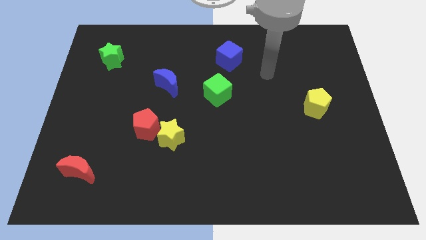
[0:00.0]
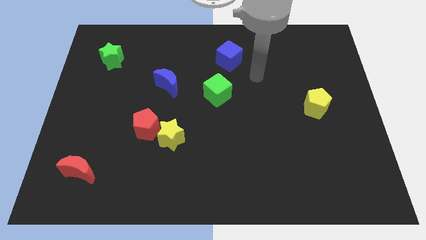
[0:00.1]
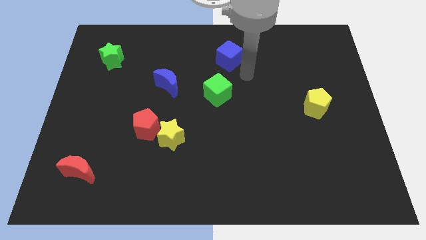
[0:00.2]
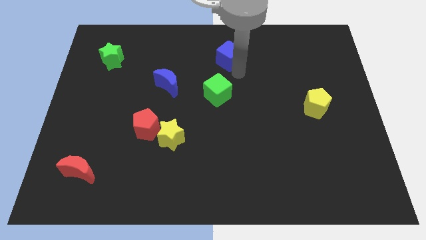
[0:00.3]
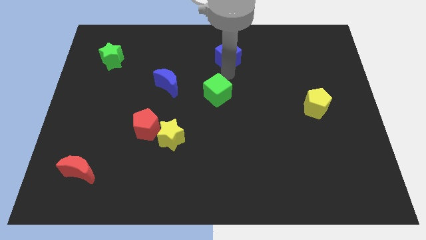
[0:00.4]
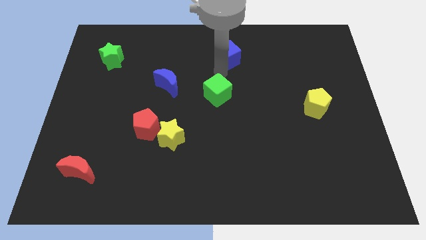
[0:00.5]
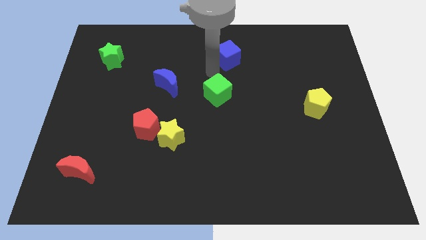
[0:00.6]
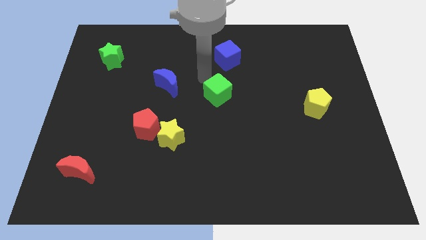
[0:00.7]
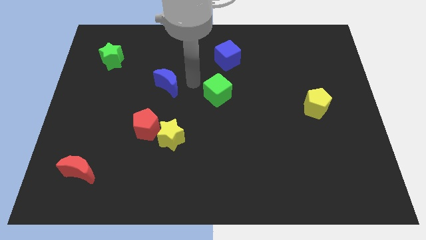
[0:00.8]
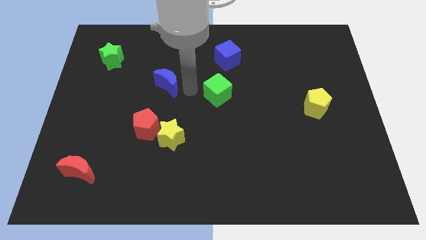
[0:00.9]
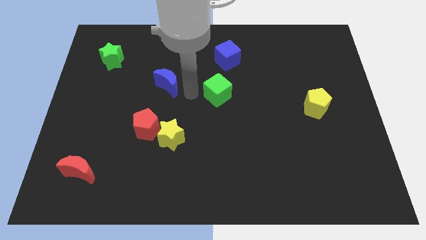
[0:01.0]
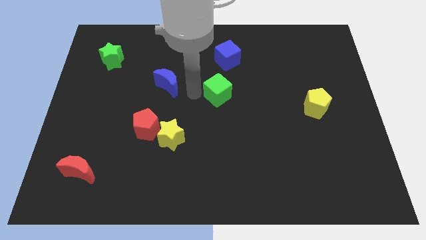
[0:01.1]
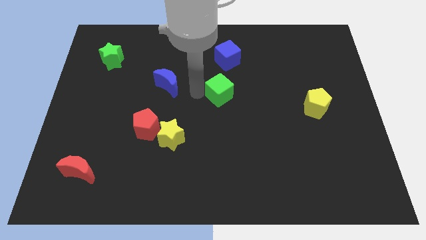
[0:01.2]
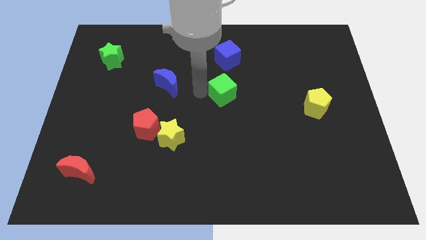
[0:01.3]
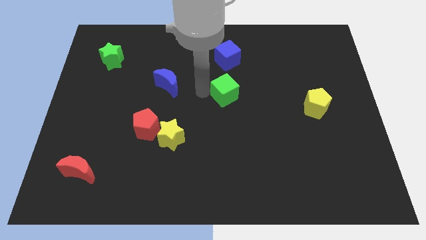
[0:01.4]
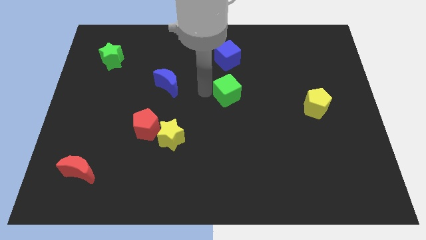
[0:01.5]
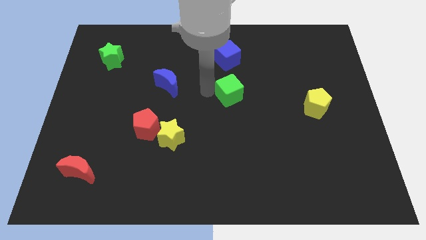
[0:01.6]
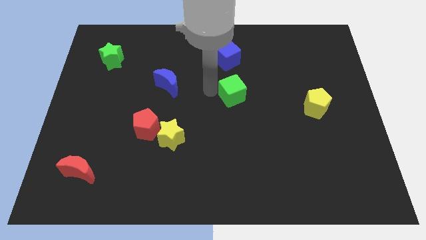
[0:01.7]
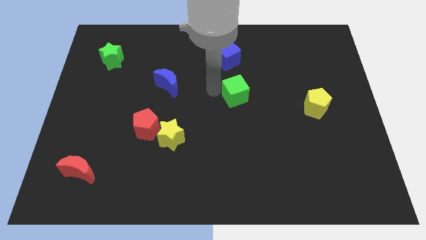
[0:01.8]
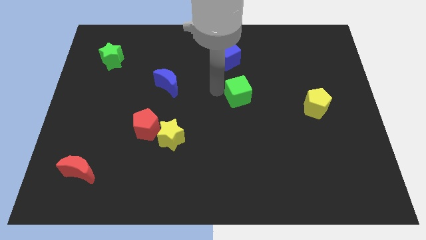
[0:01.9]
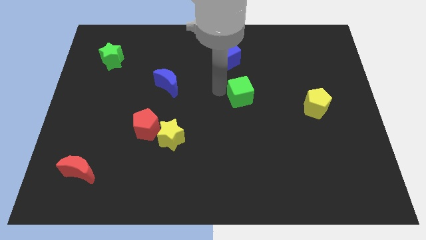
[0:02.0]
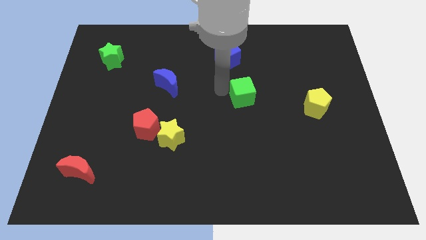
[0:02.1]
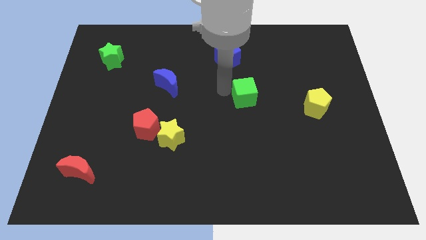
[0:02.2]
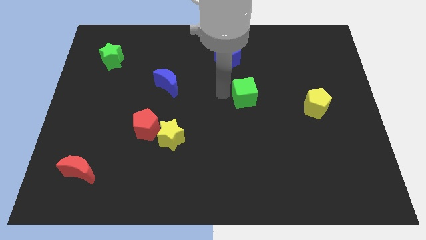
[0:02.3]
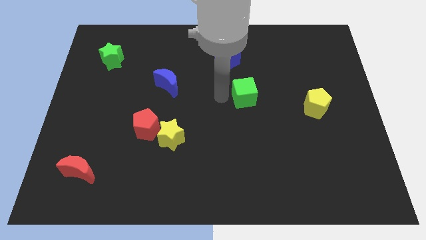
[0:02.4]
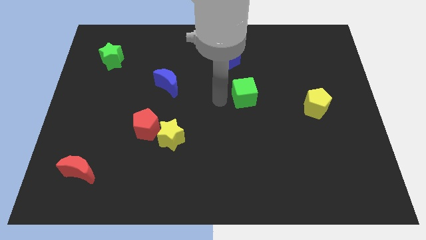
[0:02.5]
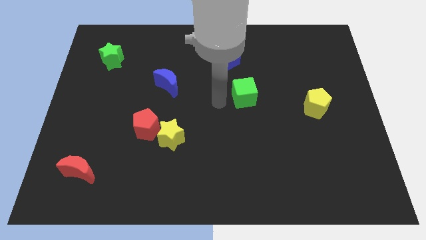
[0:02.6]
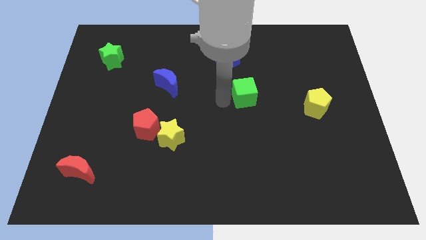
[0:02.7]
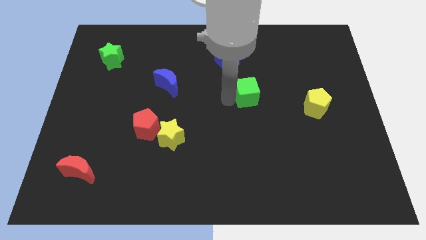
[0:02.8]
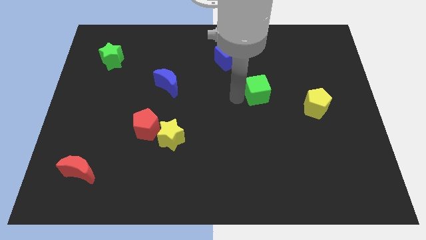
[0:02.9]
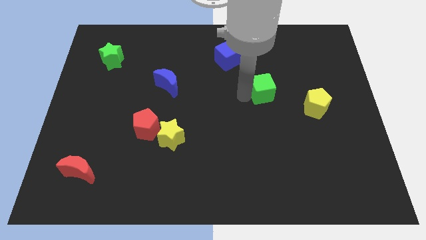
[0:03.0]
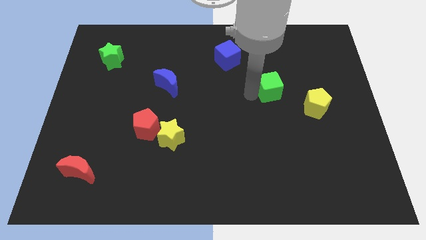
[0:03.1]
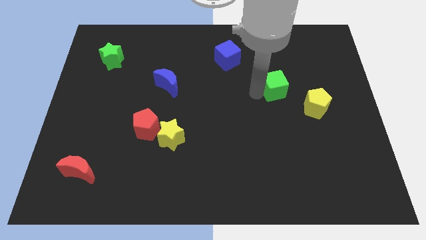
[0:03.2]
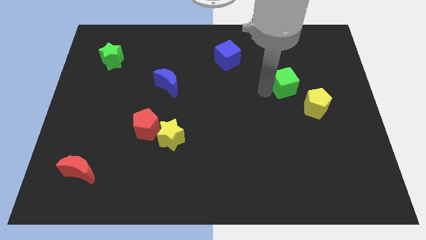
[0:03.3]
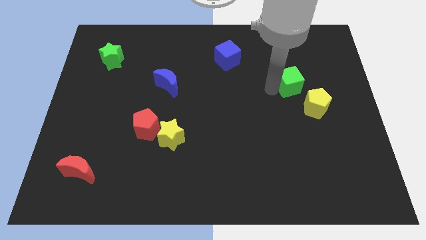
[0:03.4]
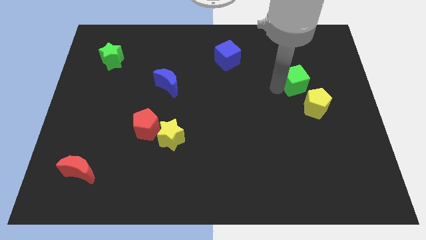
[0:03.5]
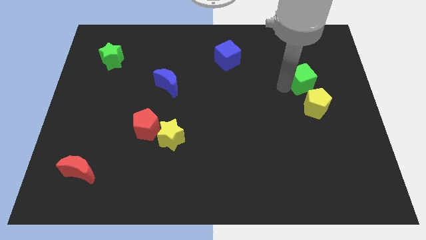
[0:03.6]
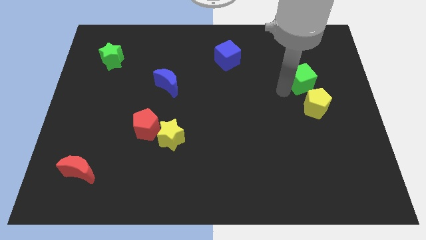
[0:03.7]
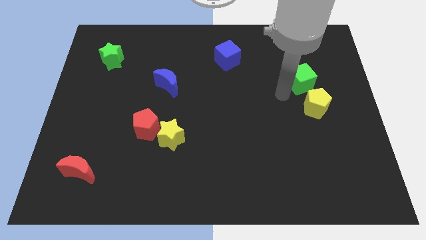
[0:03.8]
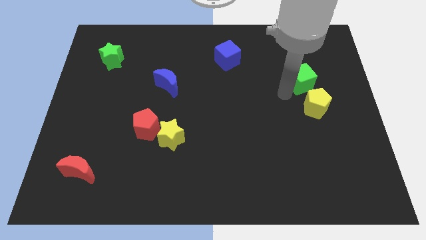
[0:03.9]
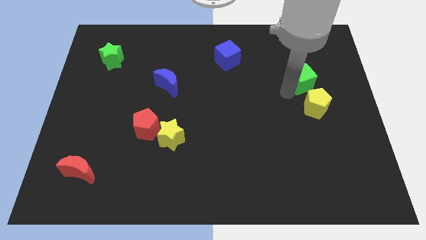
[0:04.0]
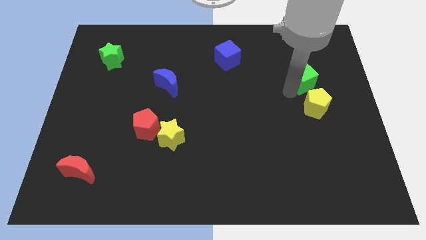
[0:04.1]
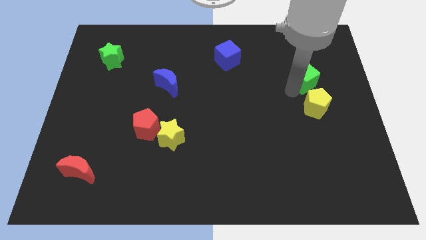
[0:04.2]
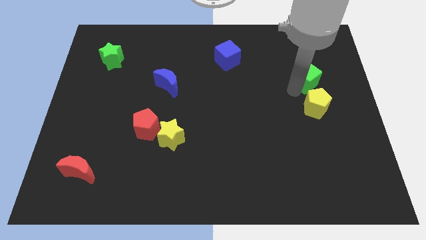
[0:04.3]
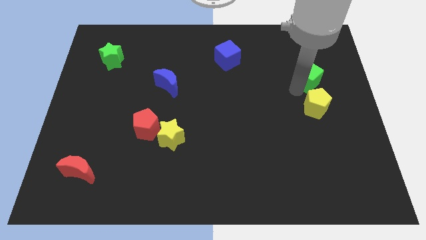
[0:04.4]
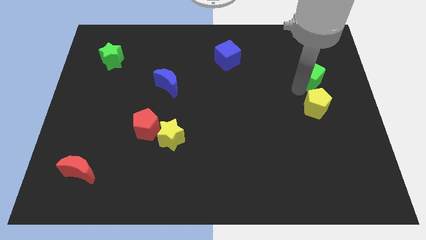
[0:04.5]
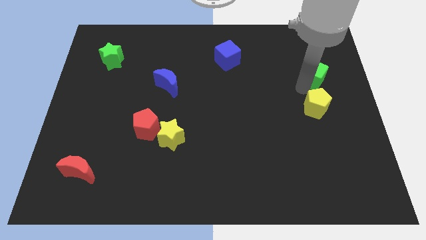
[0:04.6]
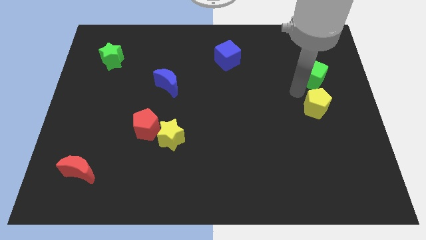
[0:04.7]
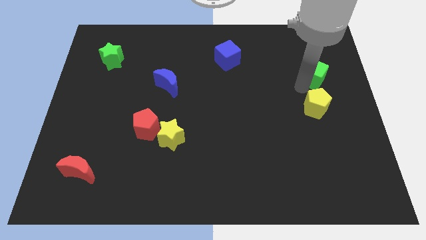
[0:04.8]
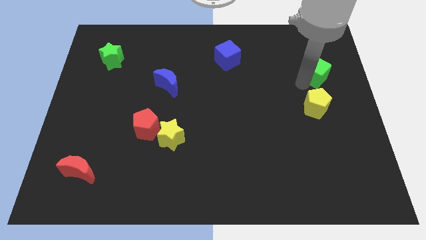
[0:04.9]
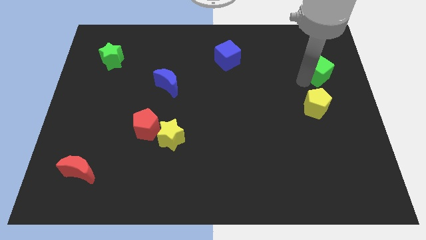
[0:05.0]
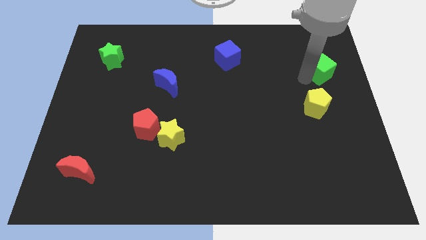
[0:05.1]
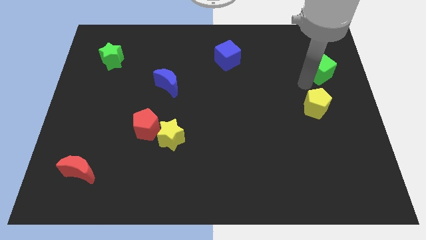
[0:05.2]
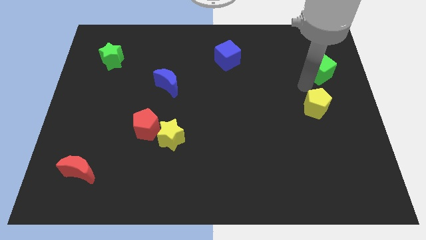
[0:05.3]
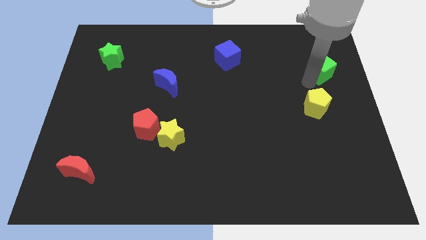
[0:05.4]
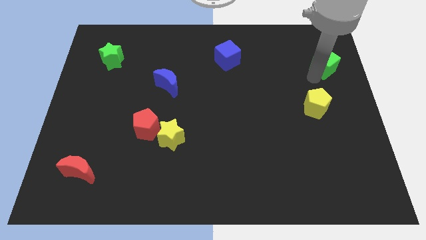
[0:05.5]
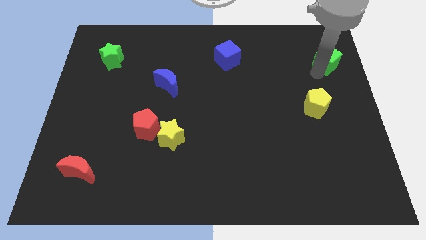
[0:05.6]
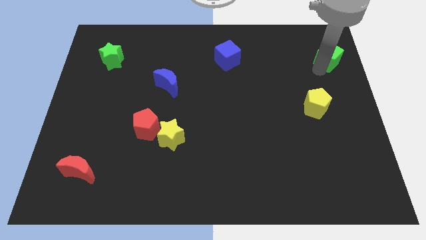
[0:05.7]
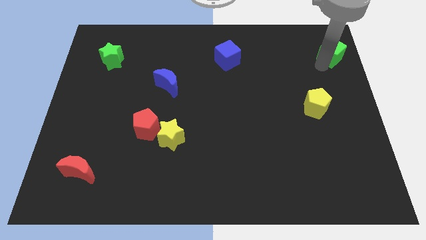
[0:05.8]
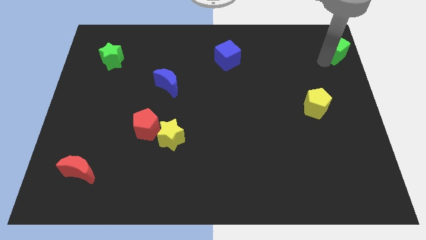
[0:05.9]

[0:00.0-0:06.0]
move the green cube to the top right corner

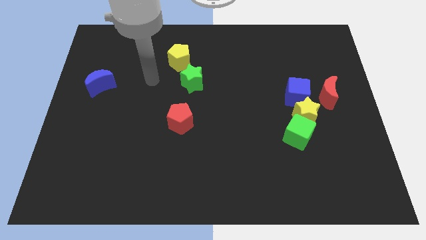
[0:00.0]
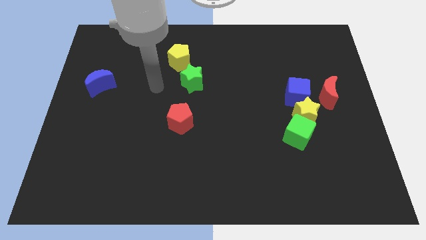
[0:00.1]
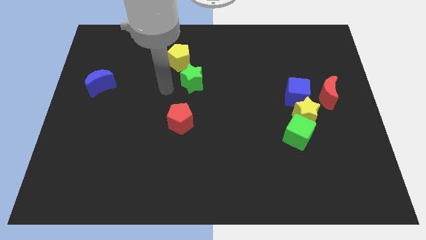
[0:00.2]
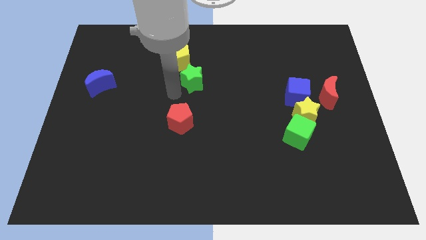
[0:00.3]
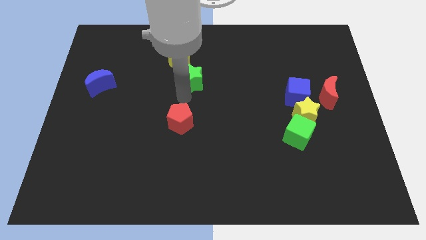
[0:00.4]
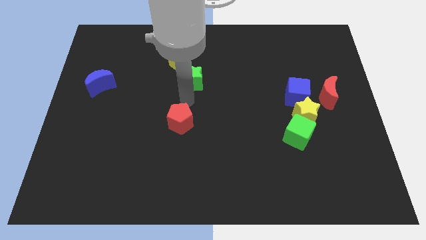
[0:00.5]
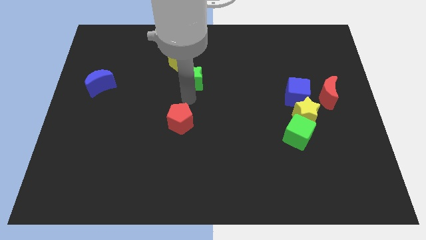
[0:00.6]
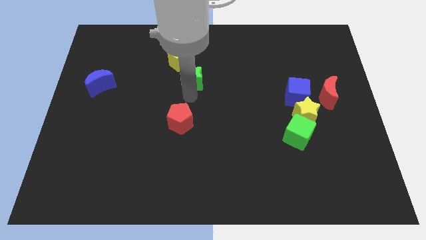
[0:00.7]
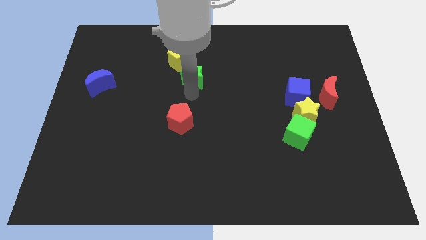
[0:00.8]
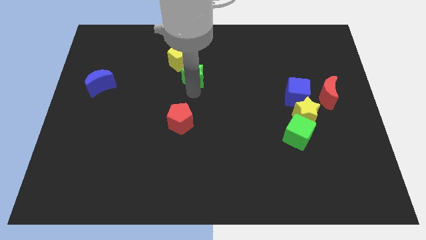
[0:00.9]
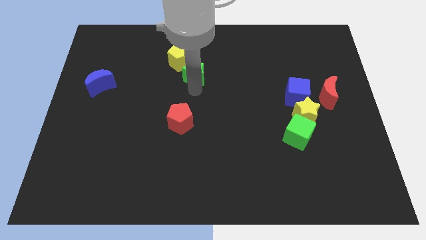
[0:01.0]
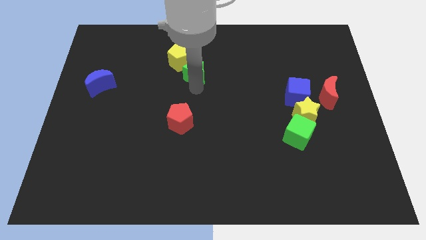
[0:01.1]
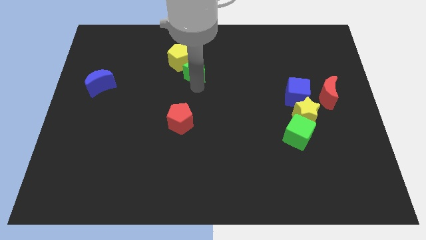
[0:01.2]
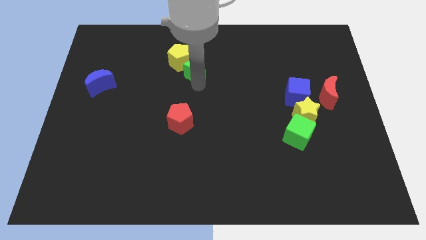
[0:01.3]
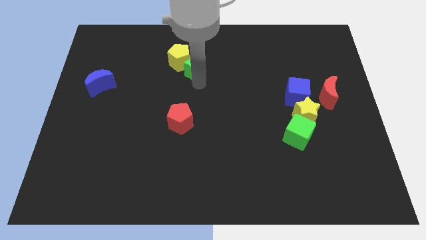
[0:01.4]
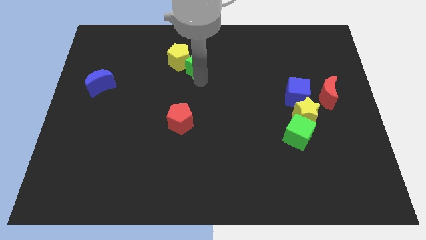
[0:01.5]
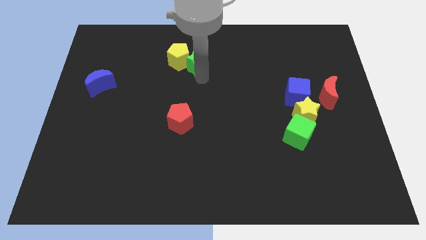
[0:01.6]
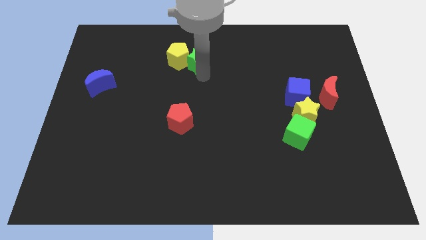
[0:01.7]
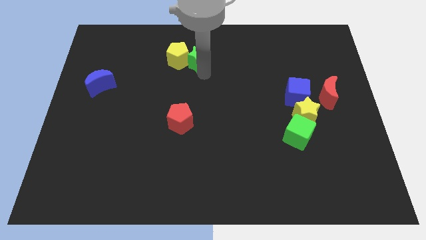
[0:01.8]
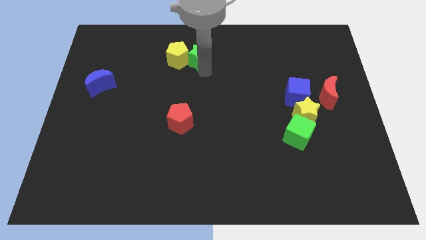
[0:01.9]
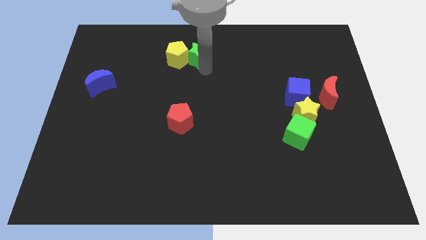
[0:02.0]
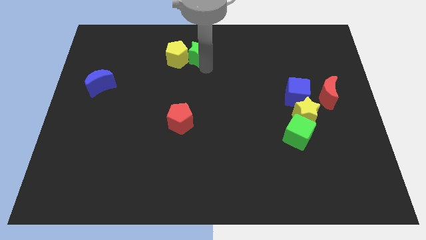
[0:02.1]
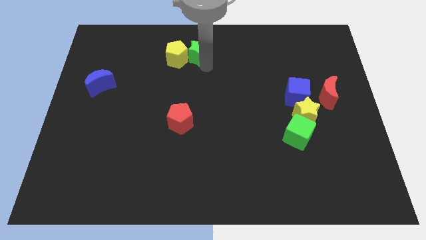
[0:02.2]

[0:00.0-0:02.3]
slide the green star to the towards your base
